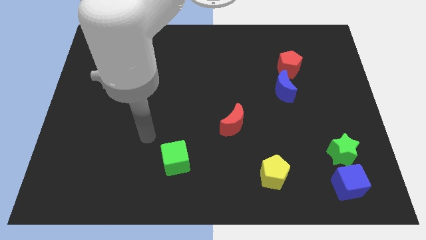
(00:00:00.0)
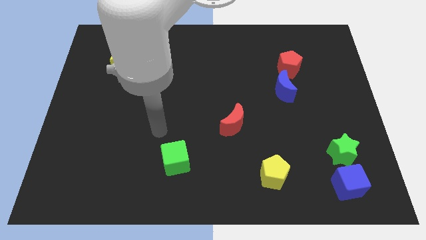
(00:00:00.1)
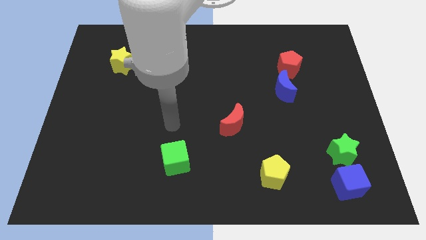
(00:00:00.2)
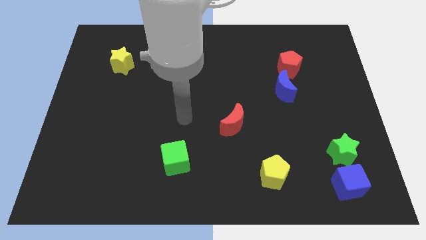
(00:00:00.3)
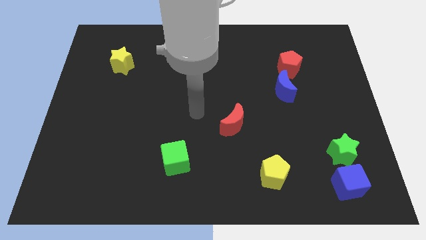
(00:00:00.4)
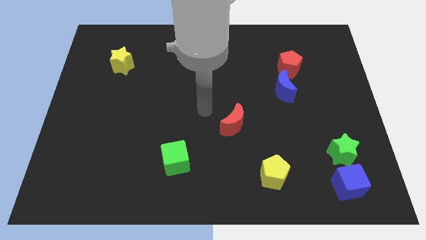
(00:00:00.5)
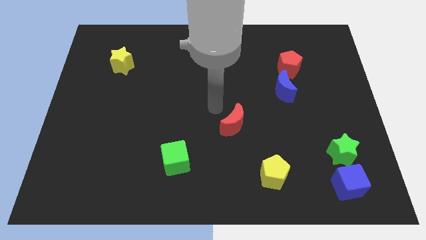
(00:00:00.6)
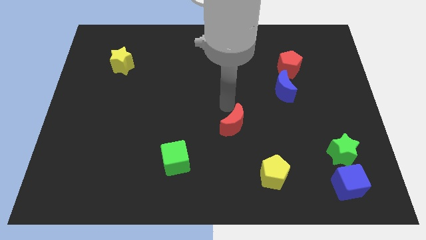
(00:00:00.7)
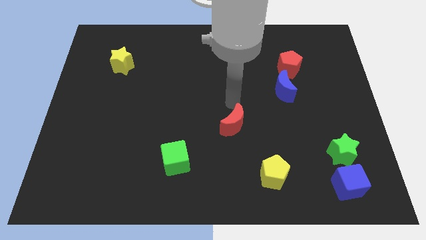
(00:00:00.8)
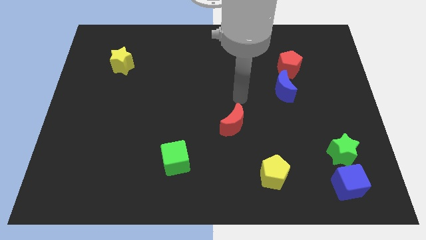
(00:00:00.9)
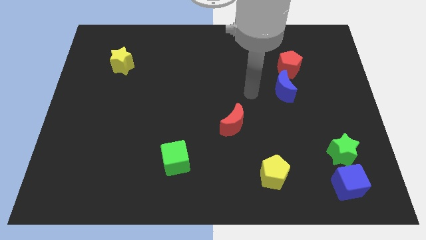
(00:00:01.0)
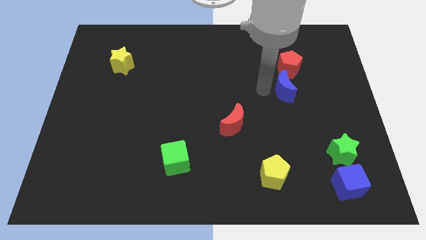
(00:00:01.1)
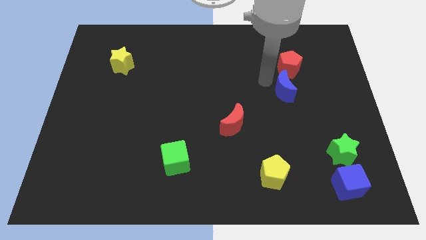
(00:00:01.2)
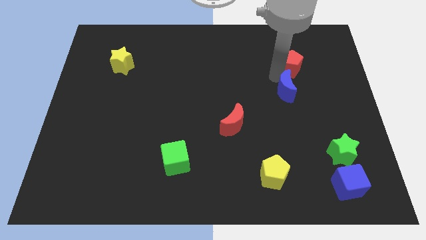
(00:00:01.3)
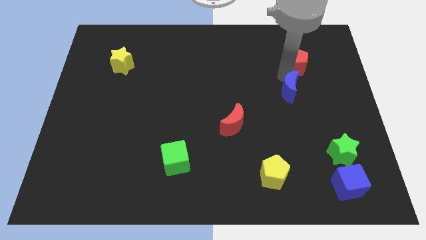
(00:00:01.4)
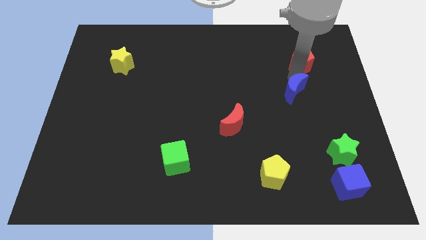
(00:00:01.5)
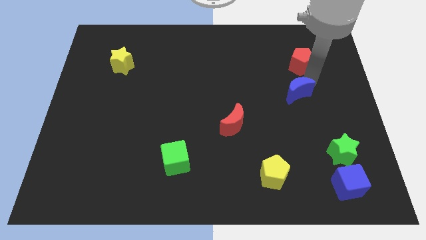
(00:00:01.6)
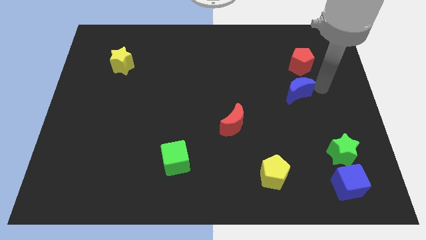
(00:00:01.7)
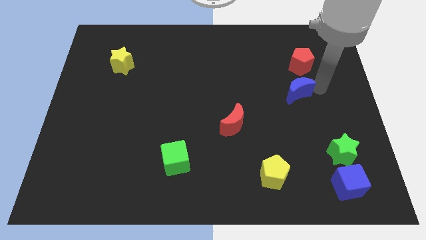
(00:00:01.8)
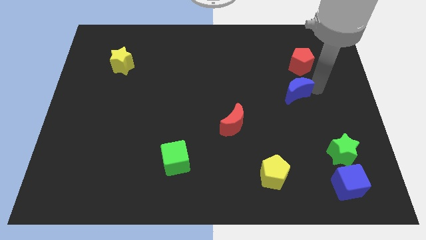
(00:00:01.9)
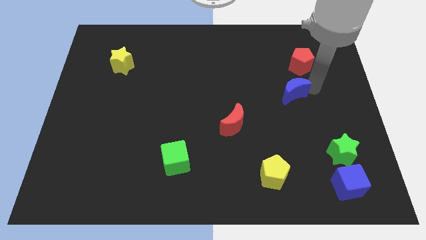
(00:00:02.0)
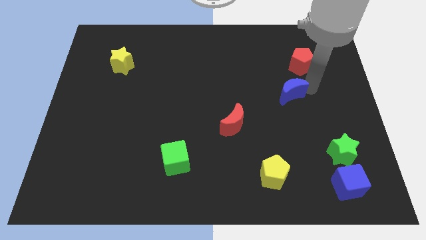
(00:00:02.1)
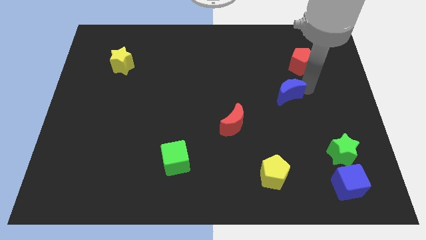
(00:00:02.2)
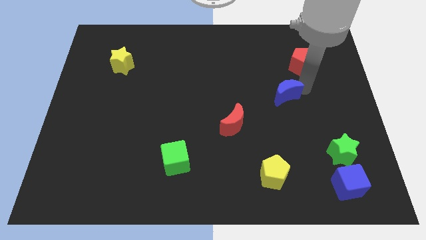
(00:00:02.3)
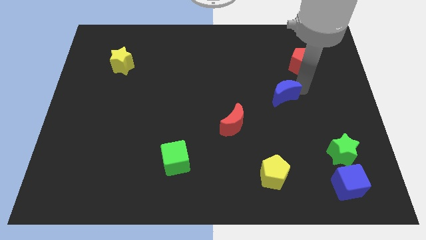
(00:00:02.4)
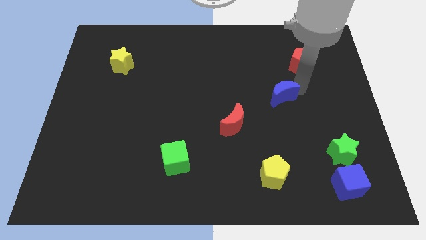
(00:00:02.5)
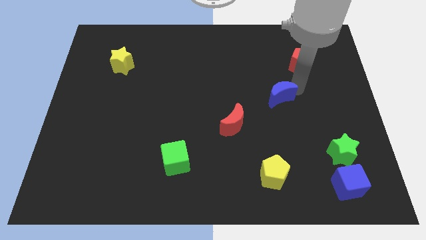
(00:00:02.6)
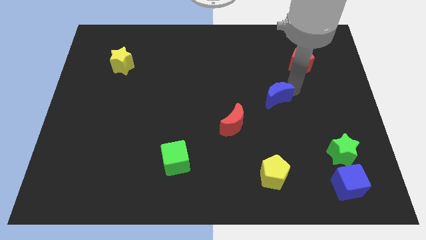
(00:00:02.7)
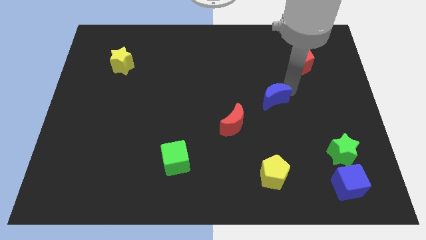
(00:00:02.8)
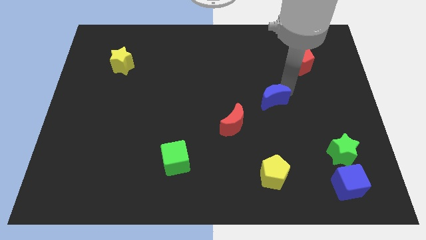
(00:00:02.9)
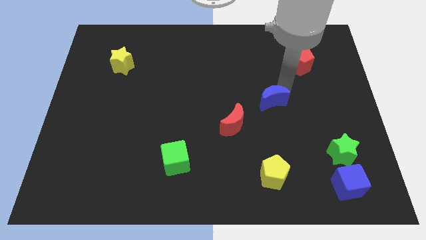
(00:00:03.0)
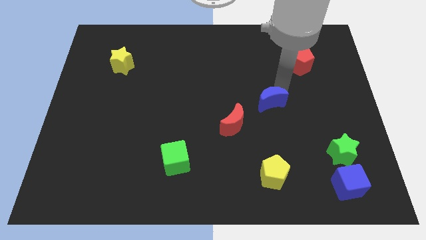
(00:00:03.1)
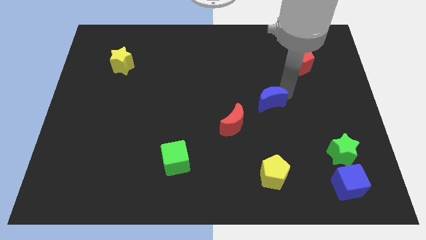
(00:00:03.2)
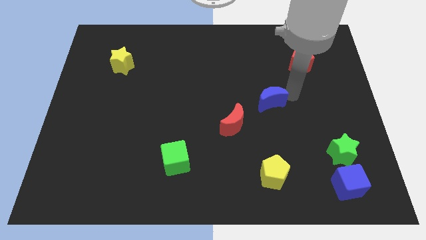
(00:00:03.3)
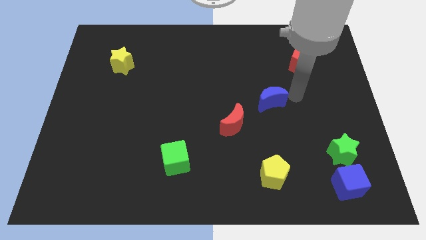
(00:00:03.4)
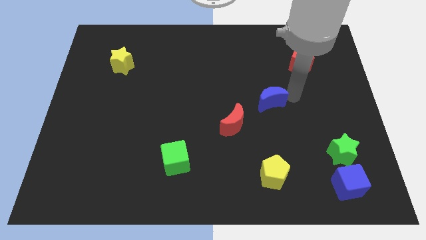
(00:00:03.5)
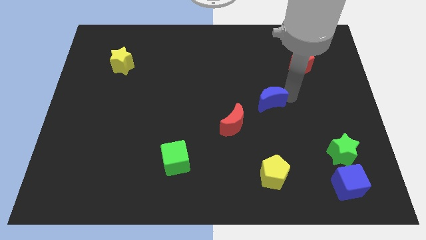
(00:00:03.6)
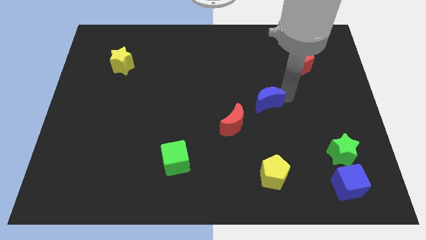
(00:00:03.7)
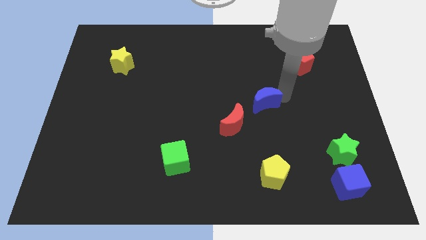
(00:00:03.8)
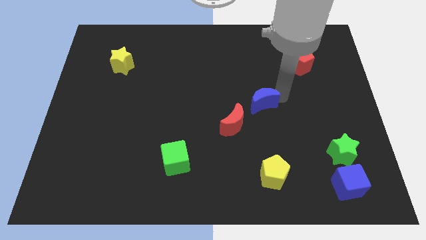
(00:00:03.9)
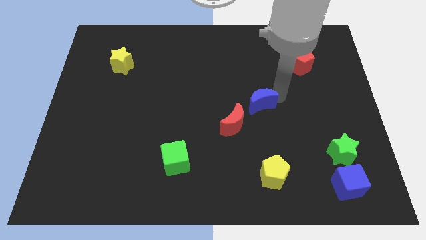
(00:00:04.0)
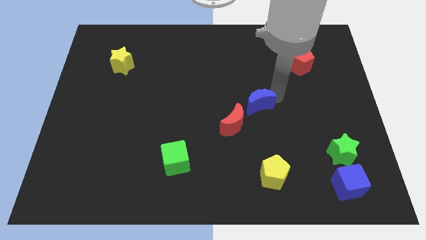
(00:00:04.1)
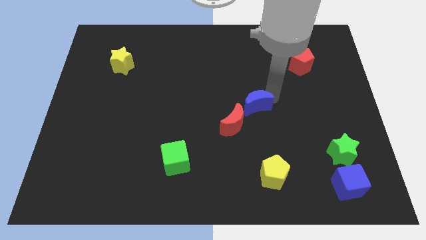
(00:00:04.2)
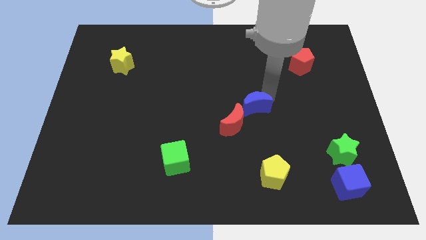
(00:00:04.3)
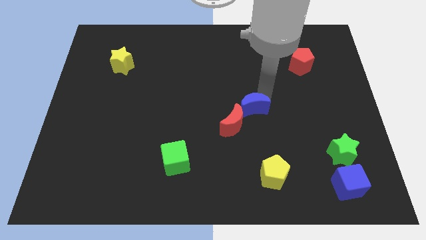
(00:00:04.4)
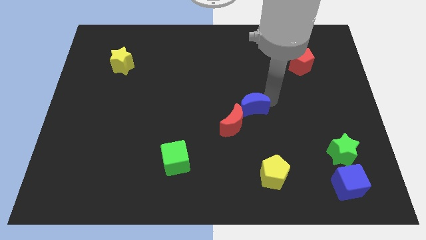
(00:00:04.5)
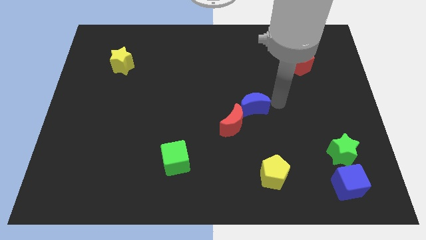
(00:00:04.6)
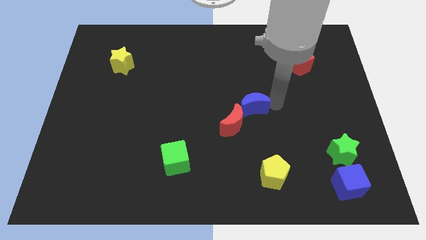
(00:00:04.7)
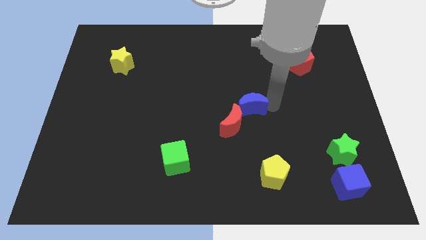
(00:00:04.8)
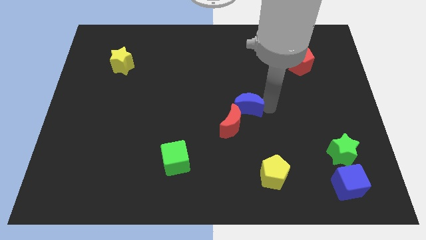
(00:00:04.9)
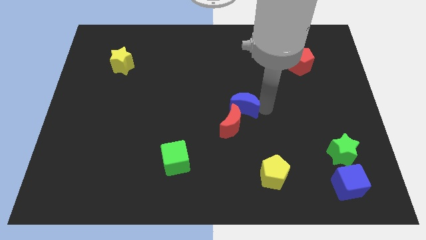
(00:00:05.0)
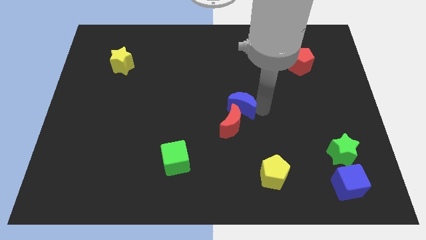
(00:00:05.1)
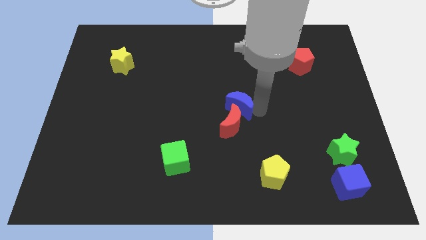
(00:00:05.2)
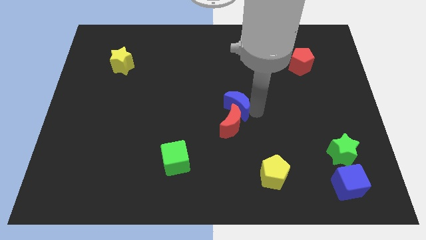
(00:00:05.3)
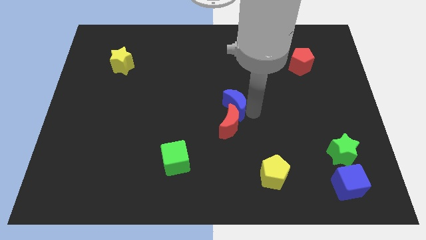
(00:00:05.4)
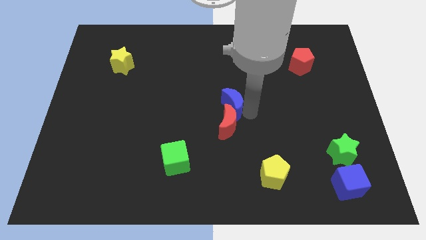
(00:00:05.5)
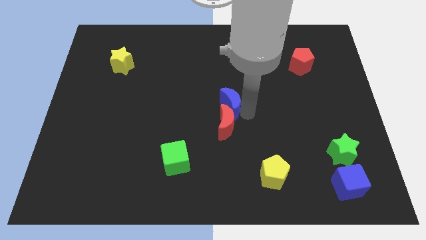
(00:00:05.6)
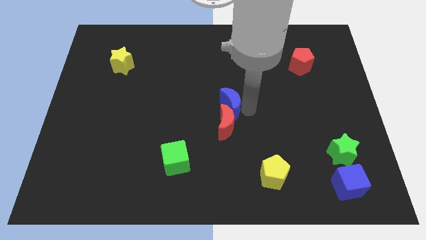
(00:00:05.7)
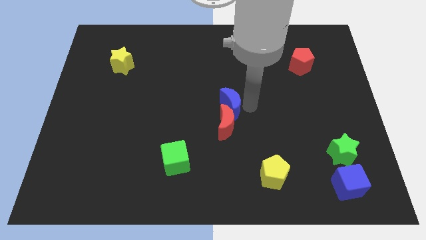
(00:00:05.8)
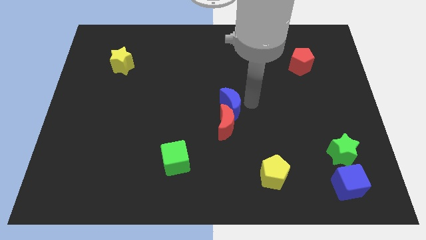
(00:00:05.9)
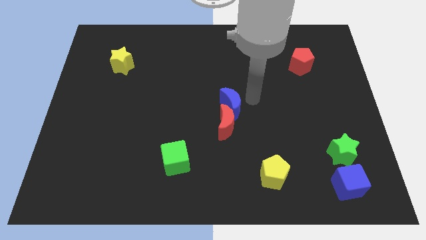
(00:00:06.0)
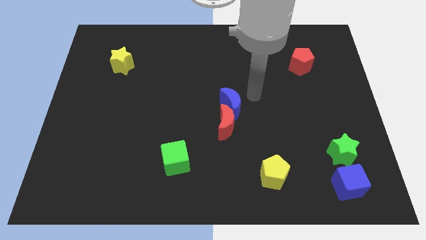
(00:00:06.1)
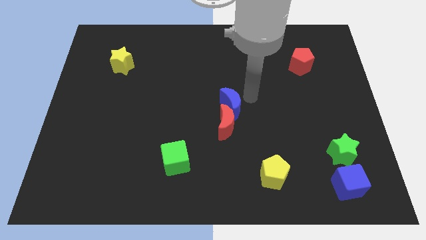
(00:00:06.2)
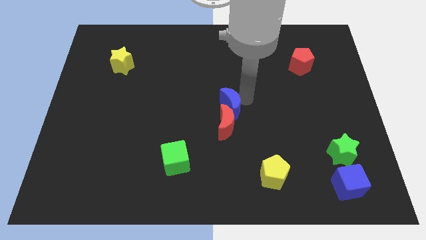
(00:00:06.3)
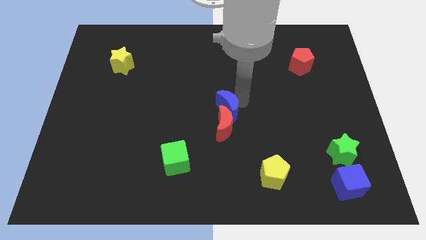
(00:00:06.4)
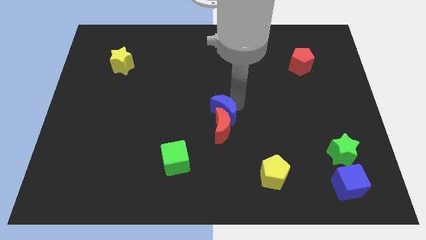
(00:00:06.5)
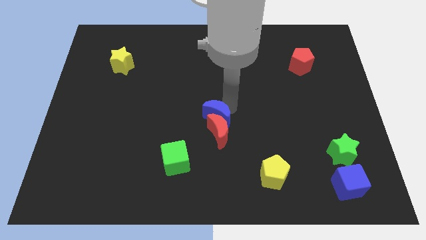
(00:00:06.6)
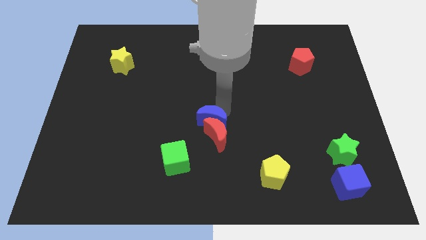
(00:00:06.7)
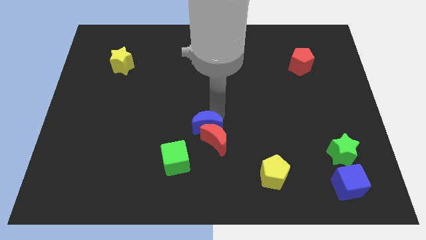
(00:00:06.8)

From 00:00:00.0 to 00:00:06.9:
put the blue moon diagonally up and to the right of the green cube

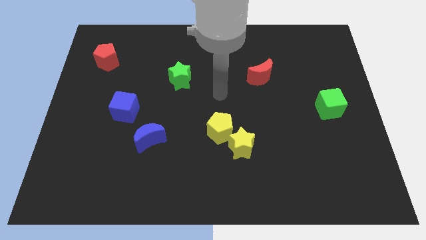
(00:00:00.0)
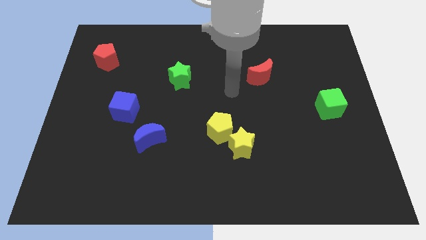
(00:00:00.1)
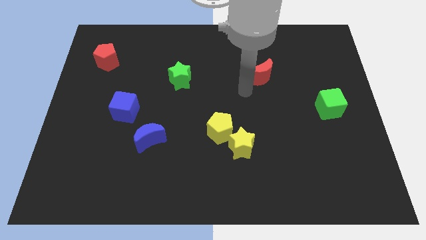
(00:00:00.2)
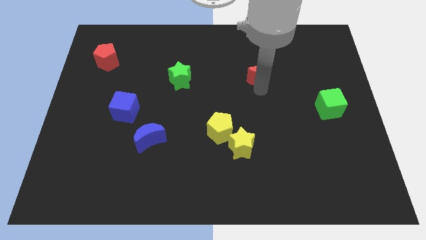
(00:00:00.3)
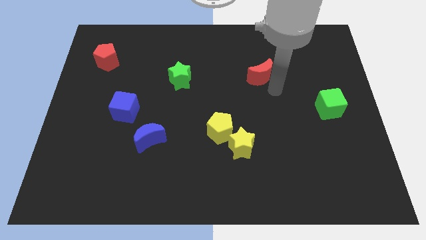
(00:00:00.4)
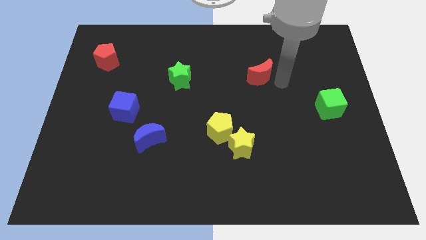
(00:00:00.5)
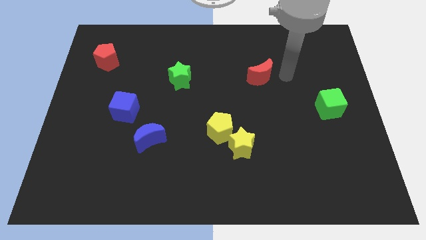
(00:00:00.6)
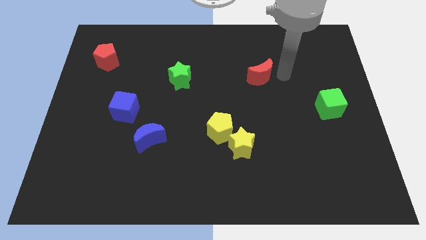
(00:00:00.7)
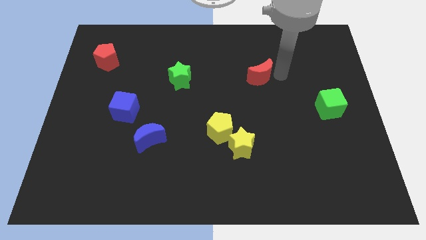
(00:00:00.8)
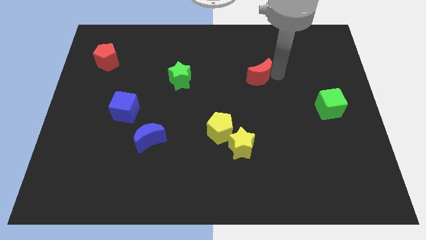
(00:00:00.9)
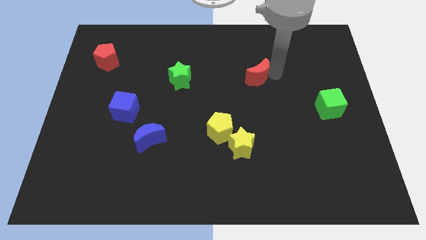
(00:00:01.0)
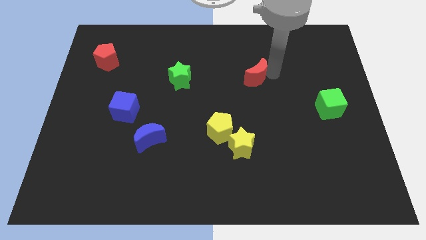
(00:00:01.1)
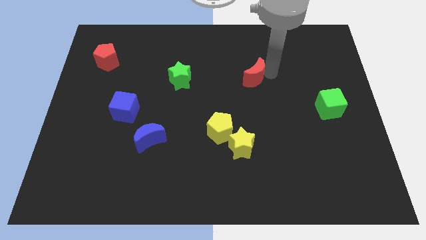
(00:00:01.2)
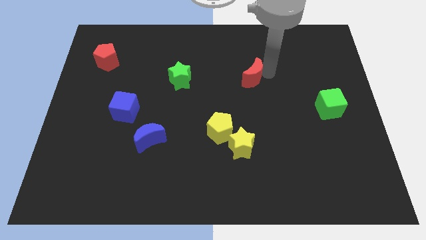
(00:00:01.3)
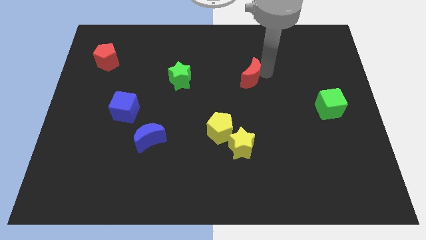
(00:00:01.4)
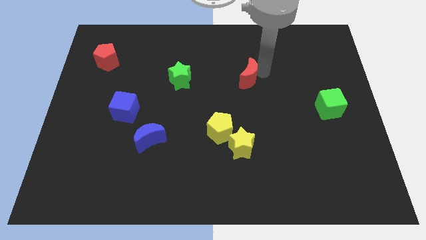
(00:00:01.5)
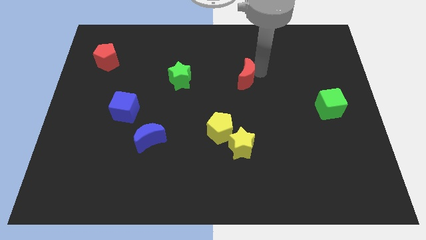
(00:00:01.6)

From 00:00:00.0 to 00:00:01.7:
push the red moon right of the green star
